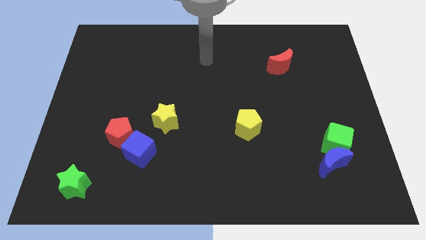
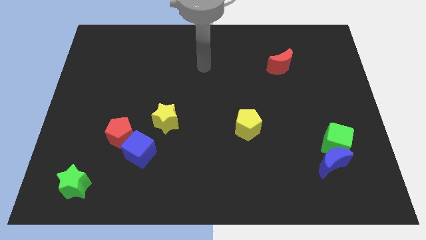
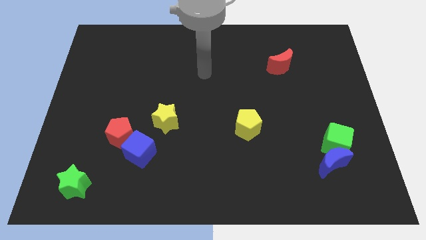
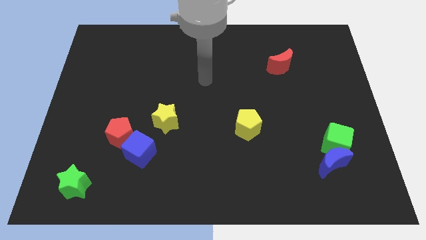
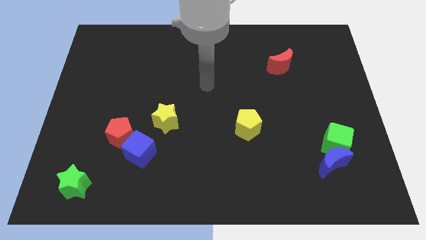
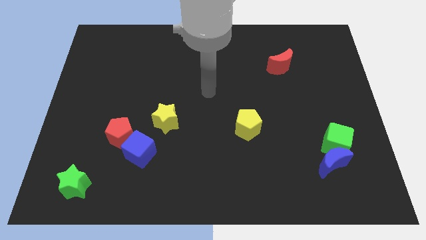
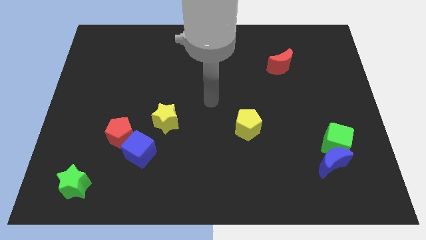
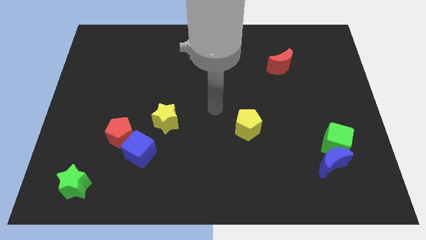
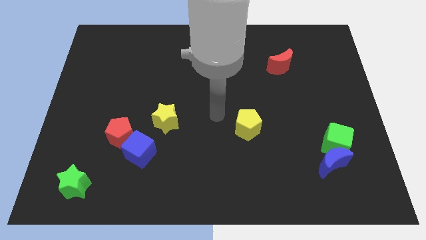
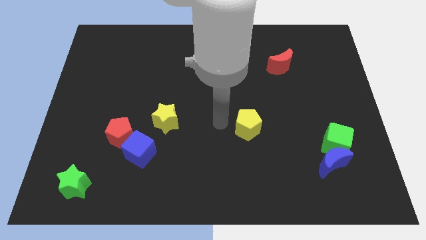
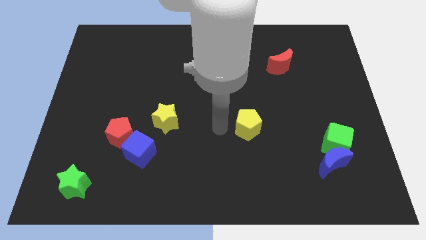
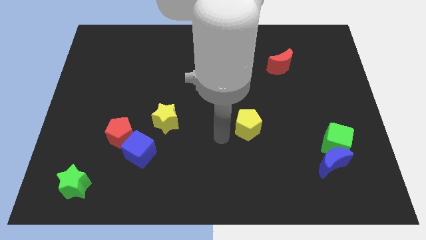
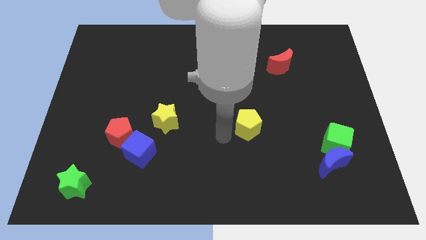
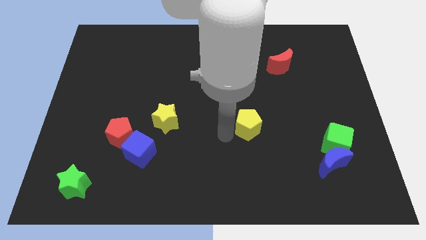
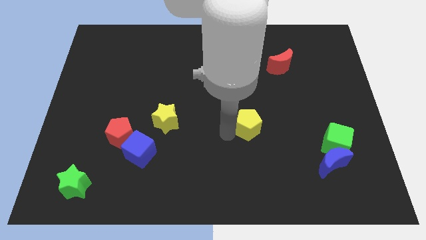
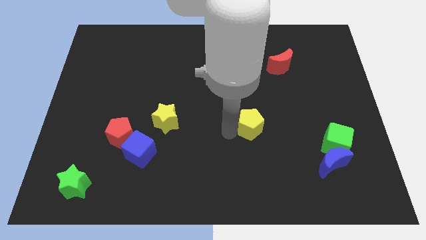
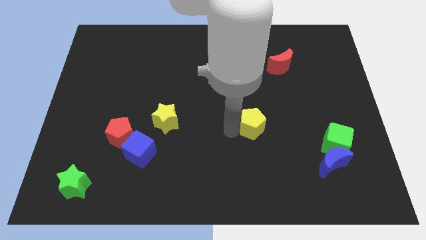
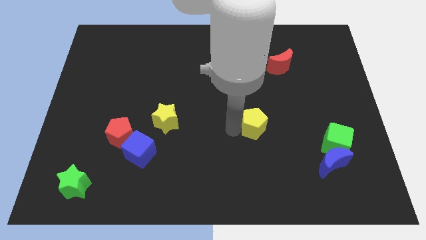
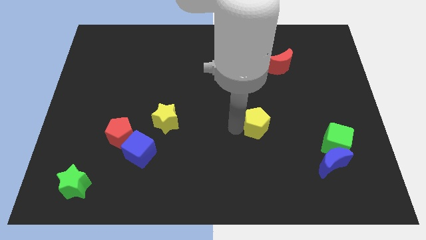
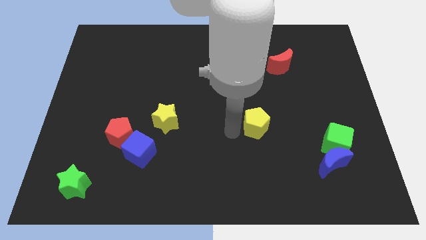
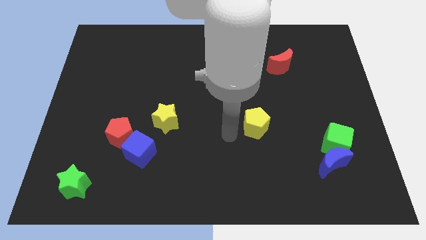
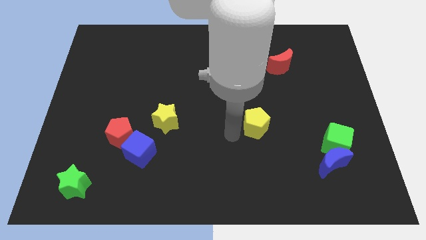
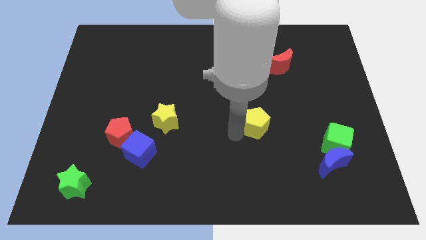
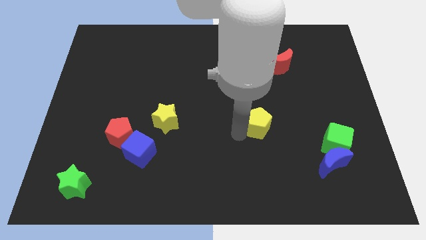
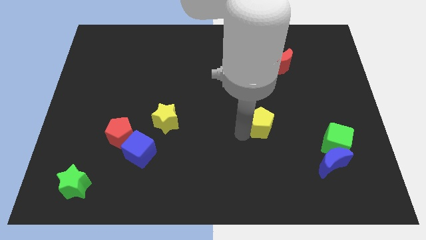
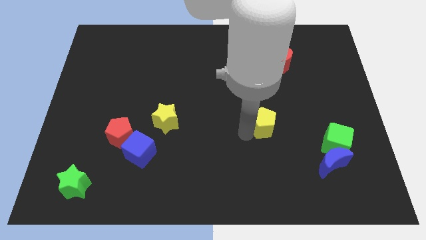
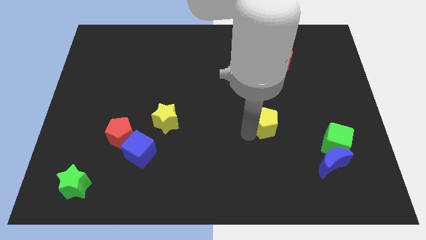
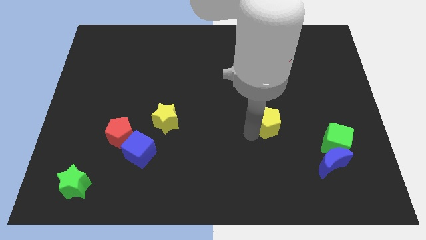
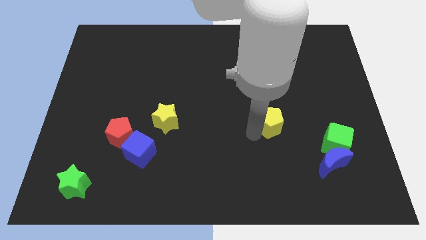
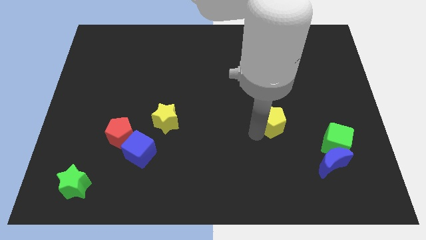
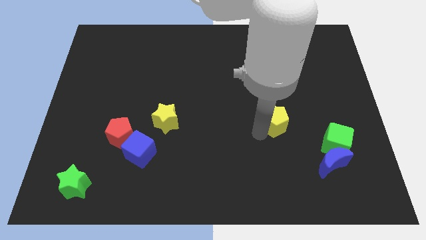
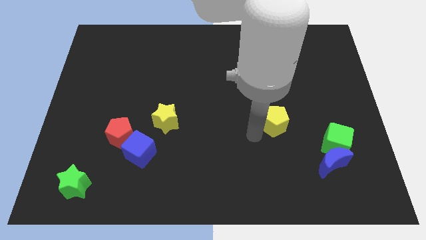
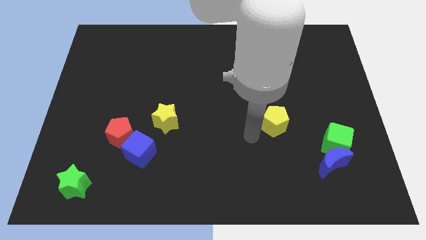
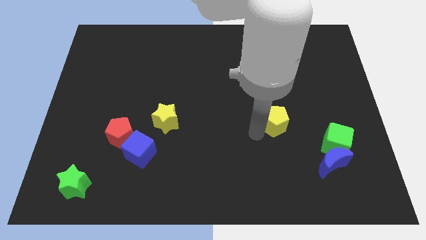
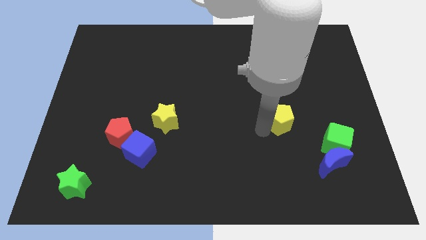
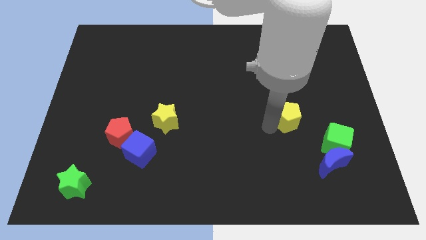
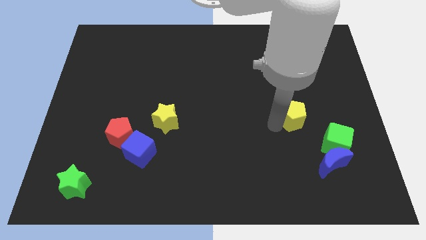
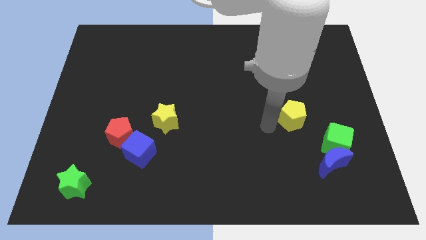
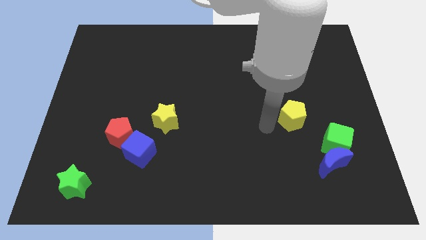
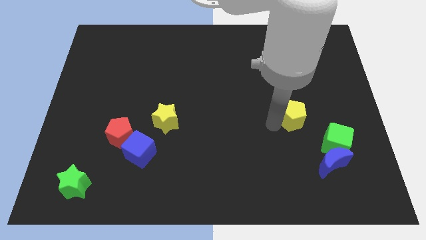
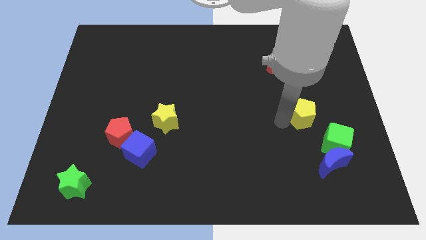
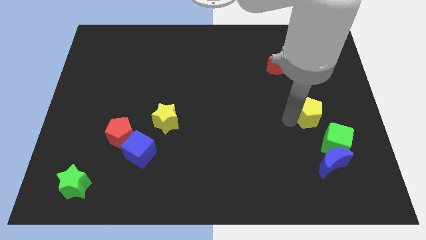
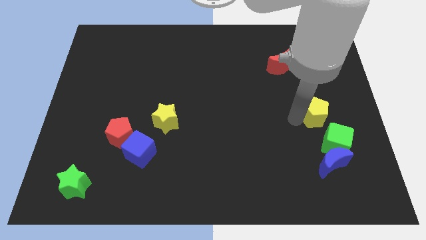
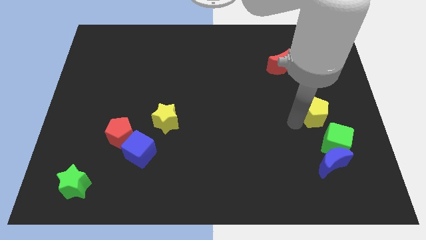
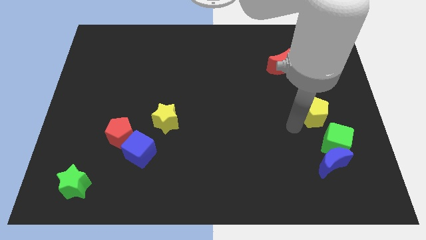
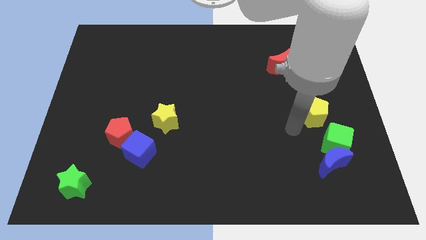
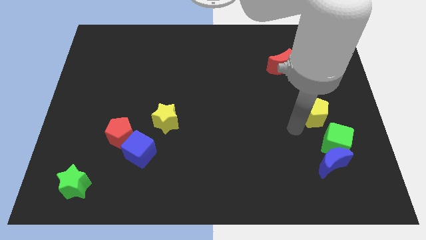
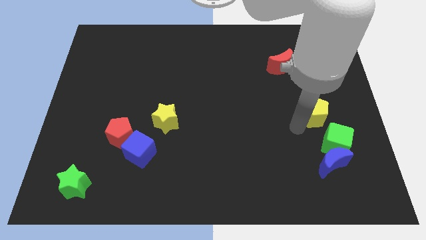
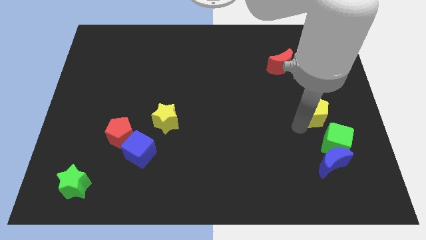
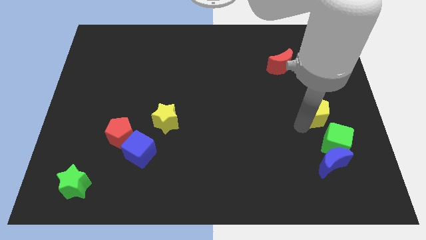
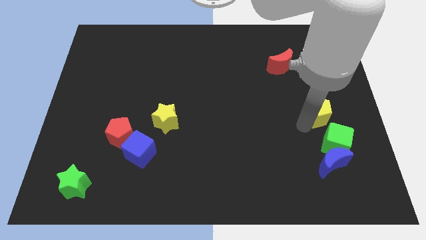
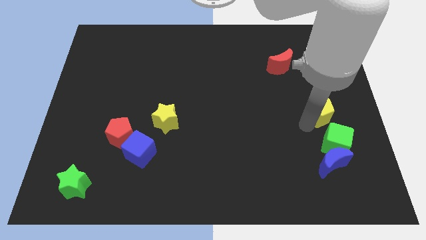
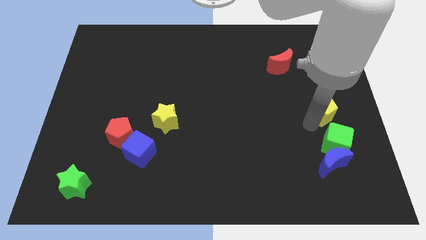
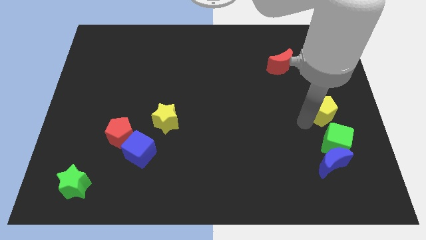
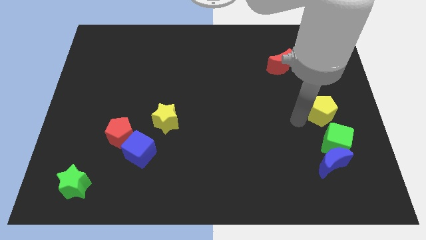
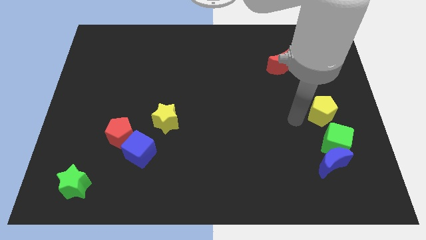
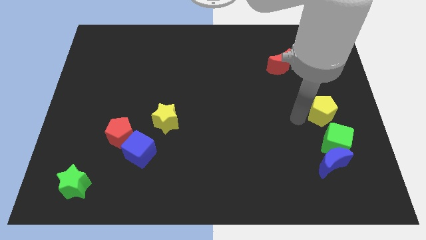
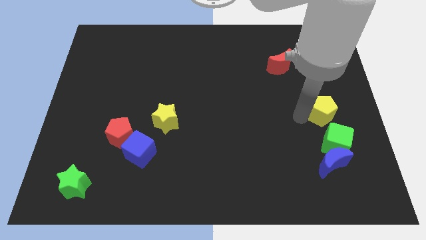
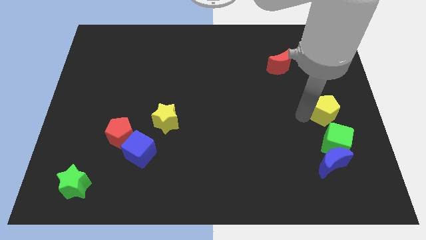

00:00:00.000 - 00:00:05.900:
slide the yellow pentagon to the right side

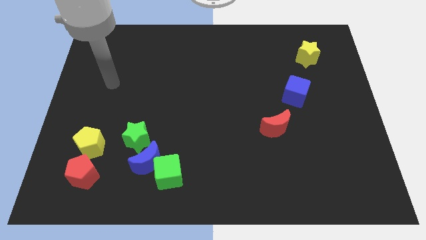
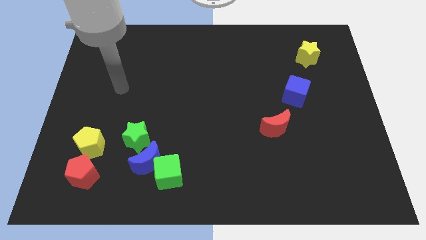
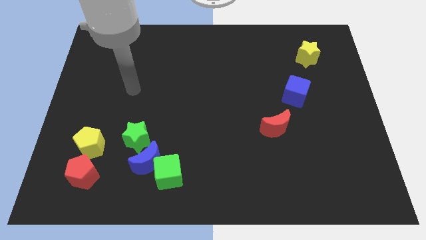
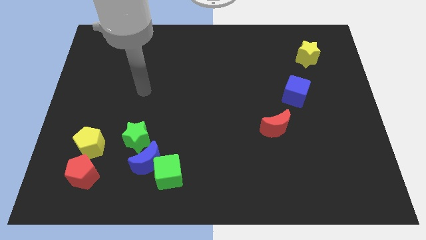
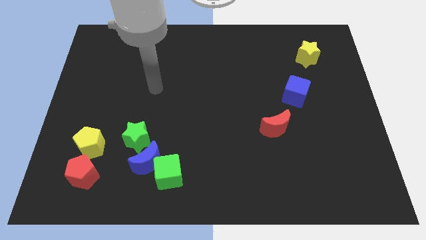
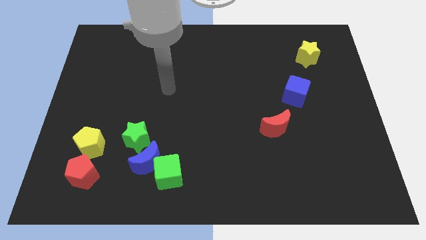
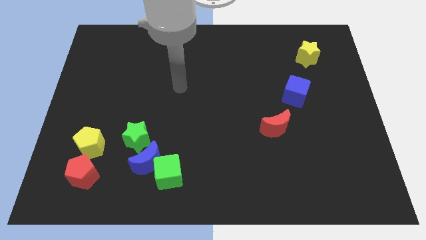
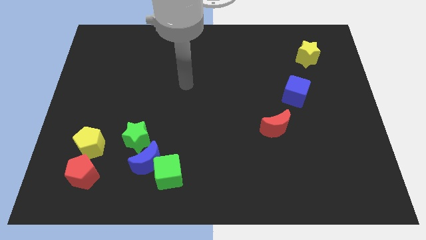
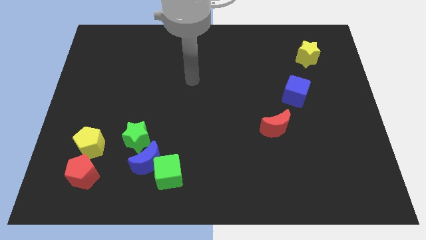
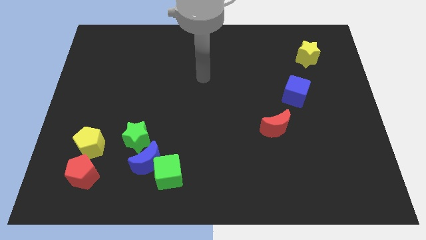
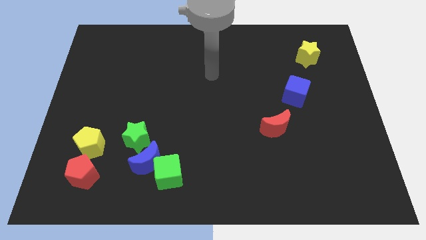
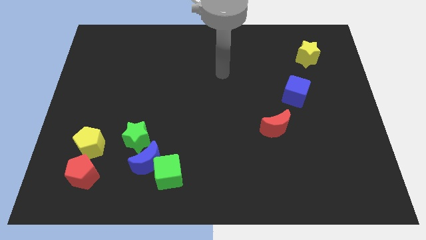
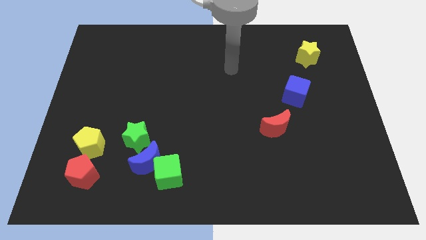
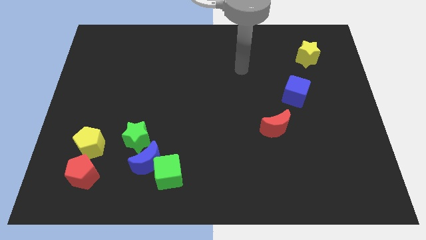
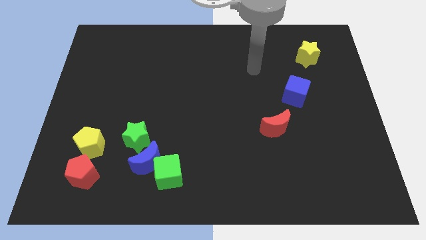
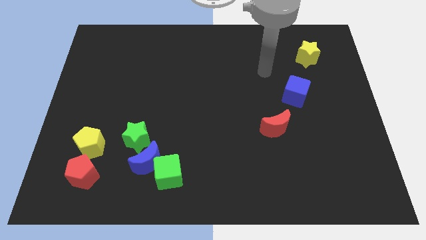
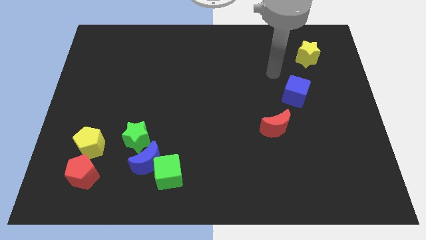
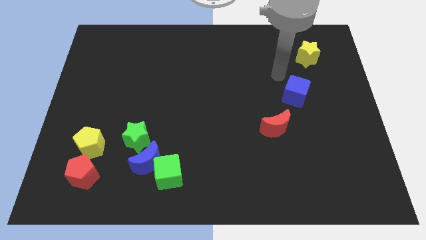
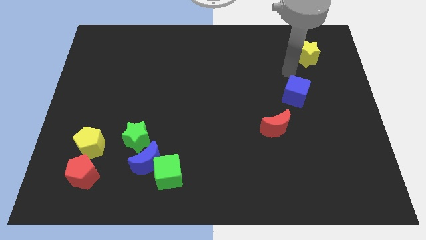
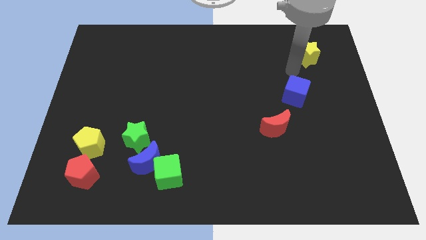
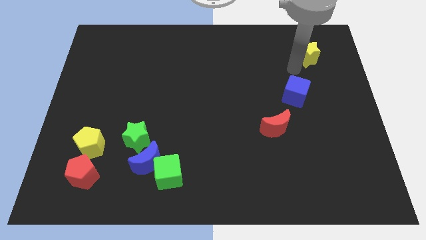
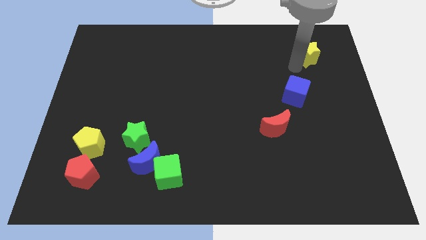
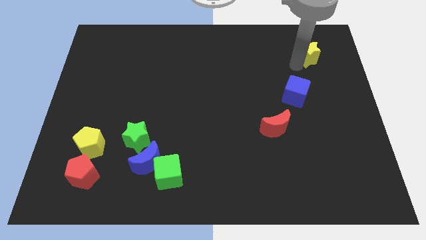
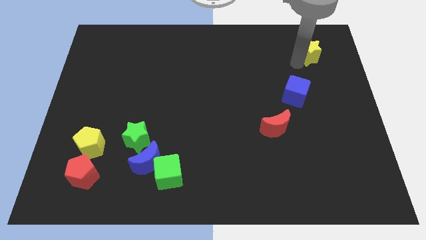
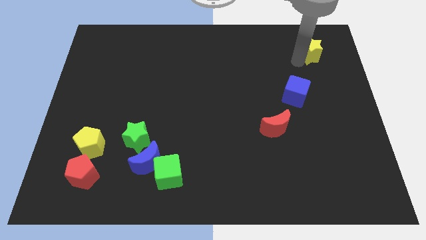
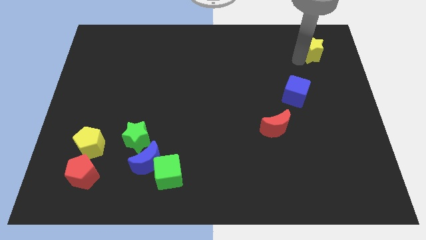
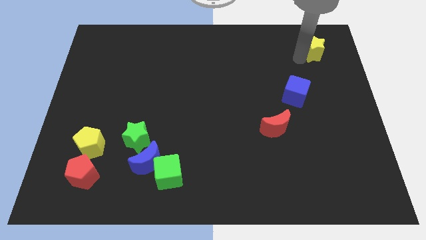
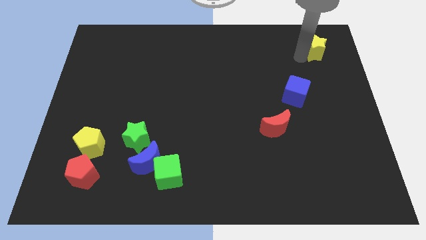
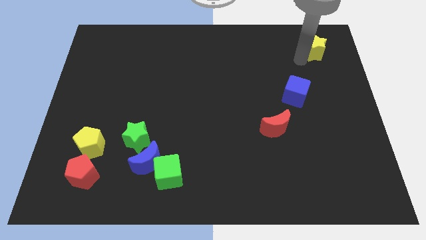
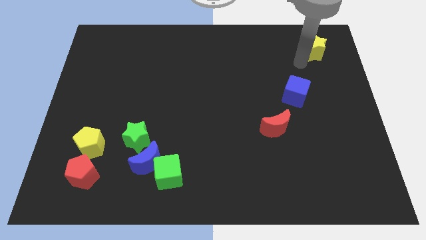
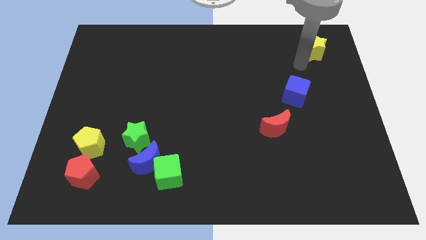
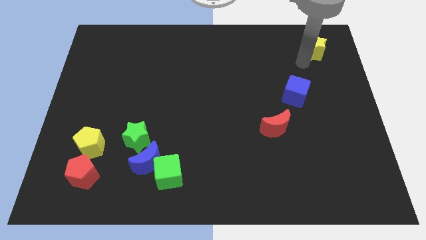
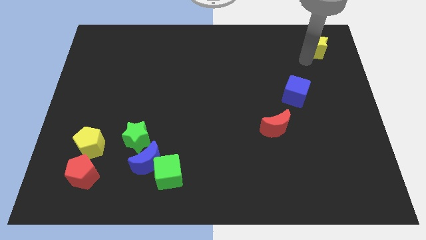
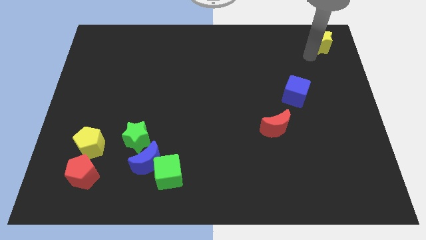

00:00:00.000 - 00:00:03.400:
put the yellow star to the top right corner
